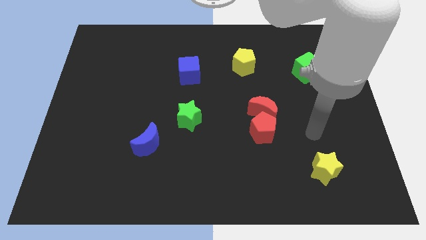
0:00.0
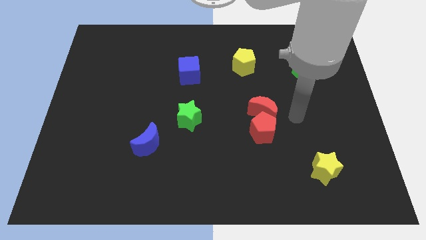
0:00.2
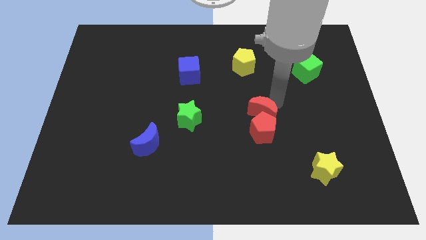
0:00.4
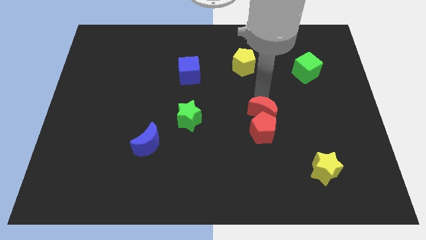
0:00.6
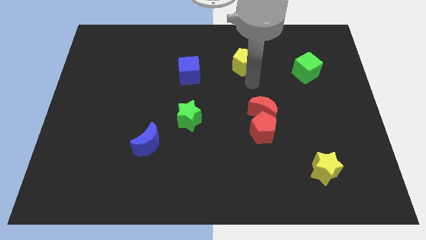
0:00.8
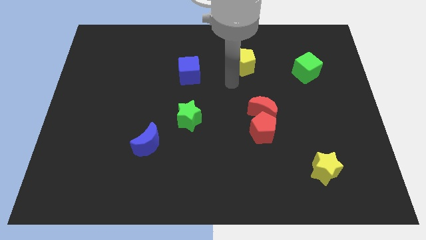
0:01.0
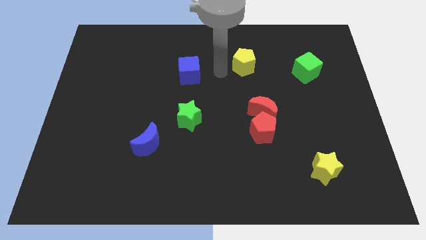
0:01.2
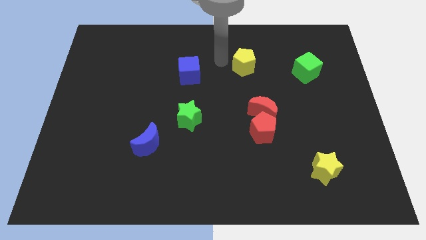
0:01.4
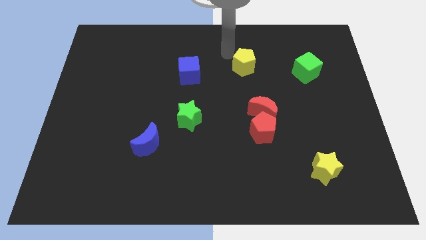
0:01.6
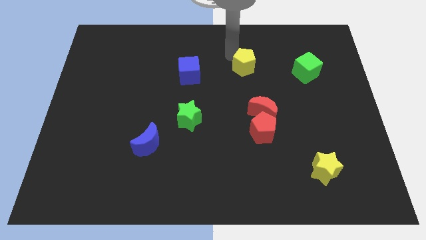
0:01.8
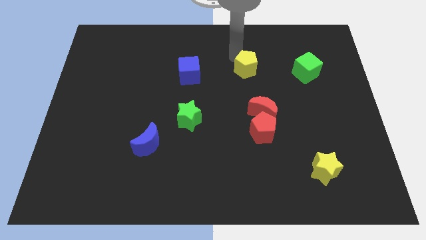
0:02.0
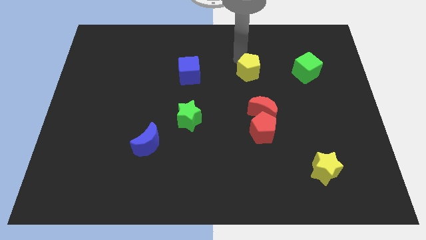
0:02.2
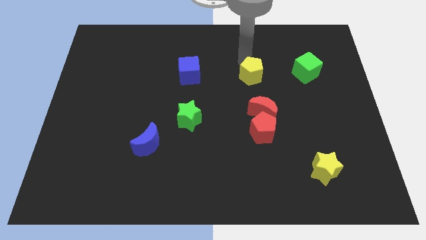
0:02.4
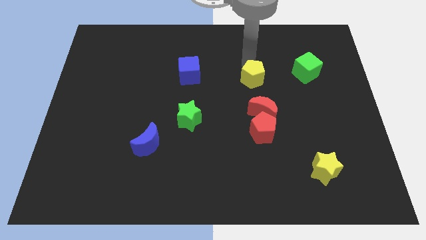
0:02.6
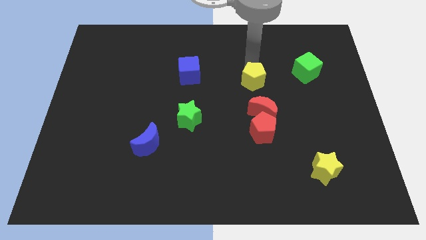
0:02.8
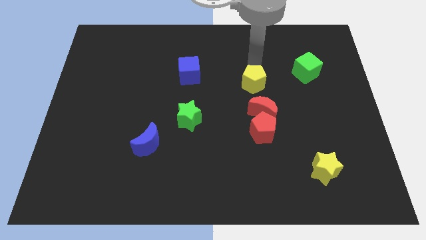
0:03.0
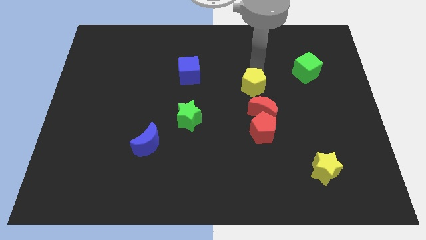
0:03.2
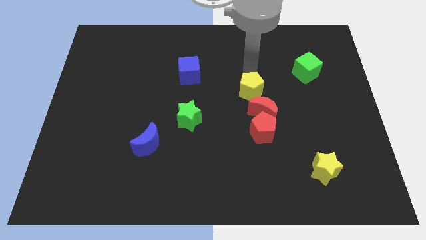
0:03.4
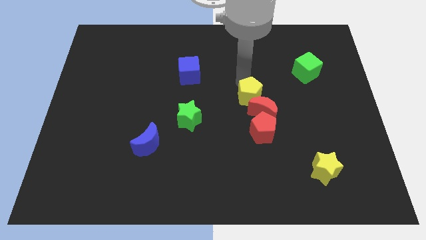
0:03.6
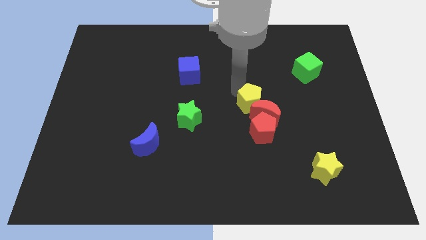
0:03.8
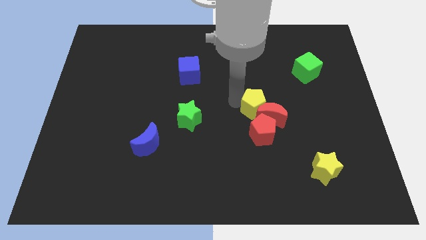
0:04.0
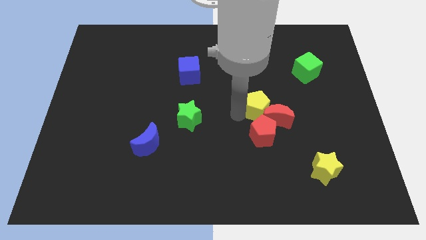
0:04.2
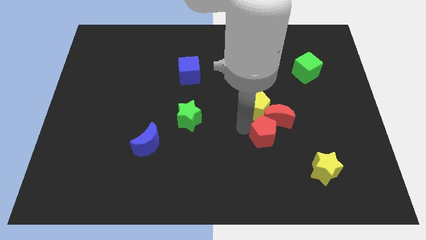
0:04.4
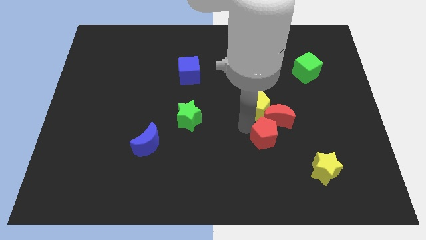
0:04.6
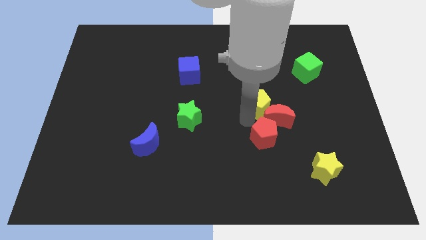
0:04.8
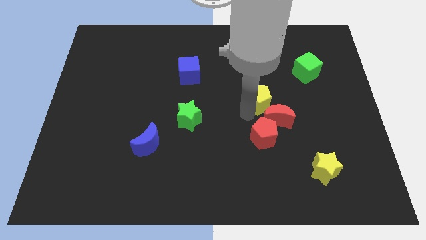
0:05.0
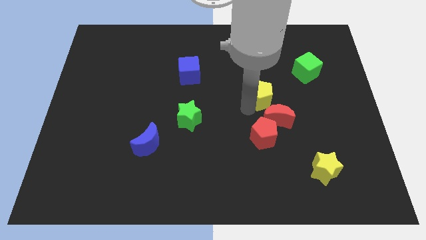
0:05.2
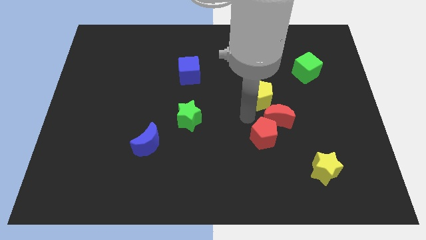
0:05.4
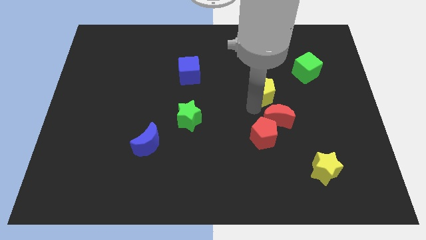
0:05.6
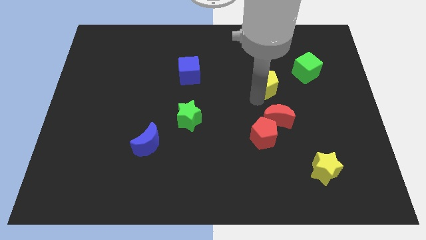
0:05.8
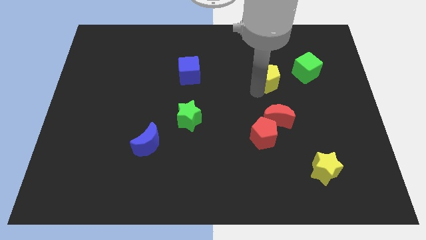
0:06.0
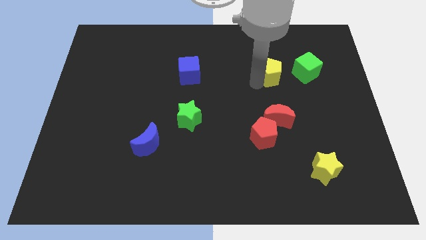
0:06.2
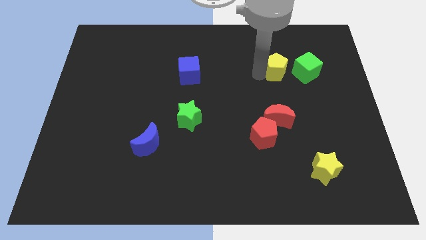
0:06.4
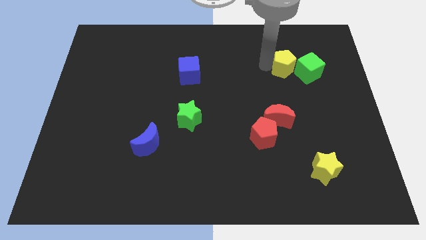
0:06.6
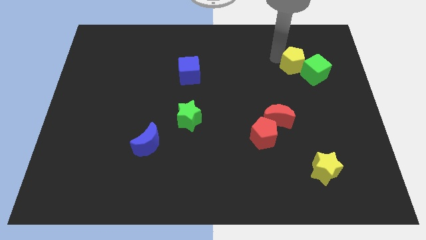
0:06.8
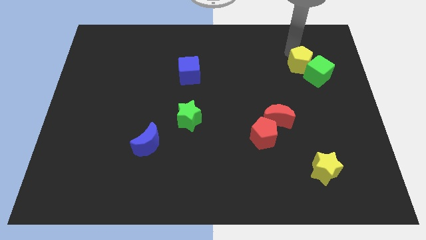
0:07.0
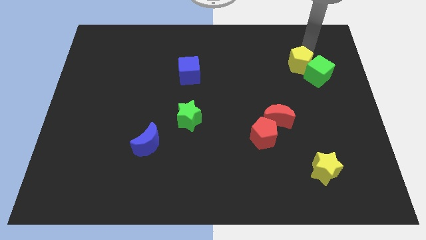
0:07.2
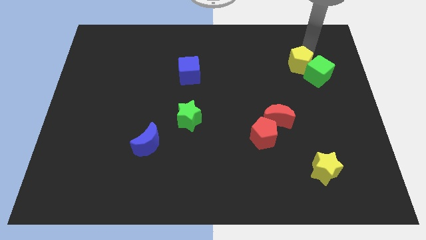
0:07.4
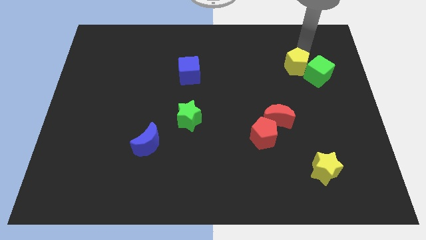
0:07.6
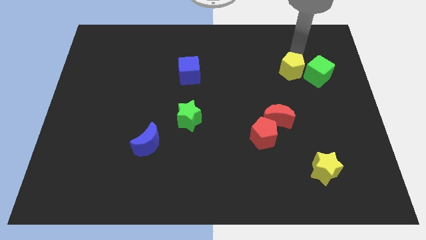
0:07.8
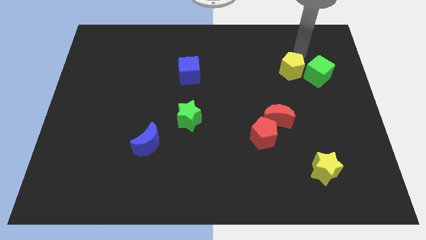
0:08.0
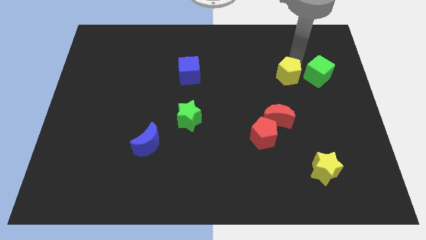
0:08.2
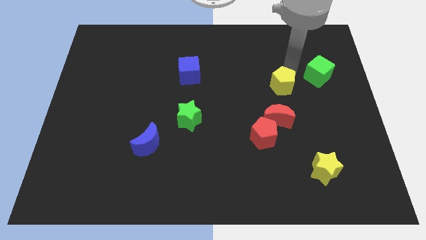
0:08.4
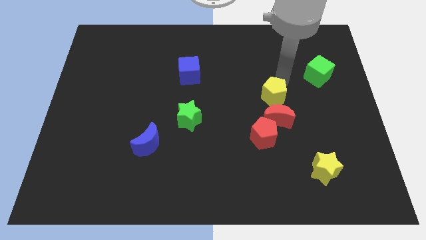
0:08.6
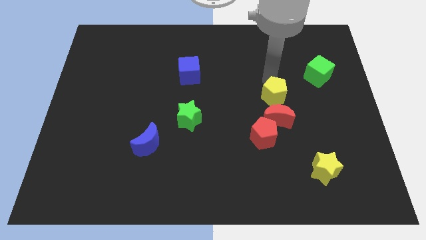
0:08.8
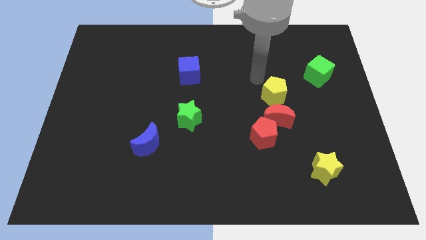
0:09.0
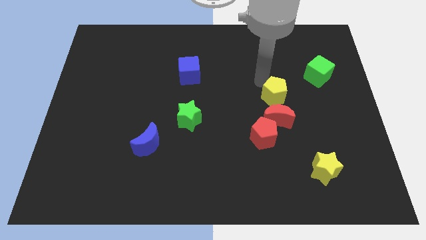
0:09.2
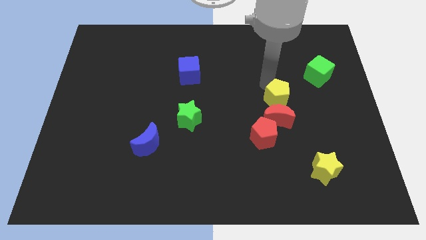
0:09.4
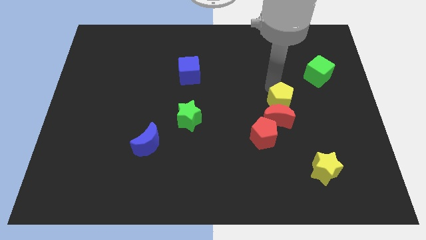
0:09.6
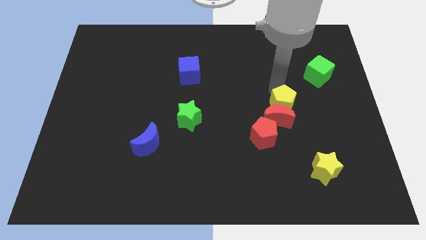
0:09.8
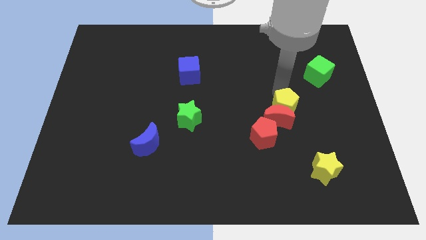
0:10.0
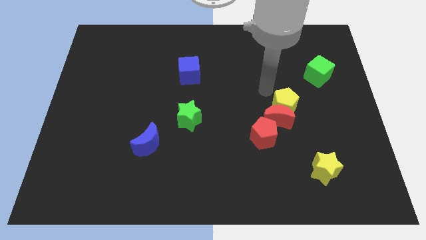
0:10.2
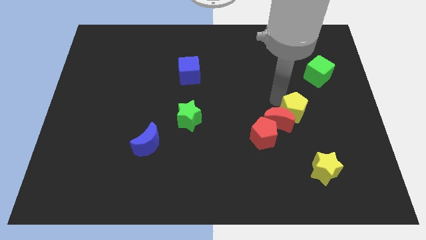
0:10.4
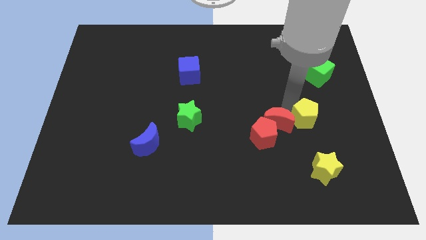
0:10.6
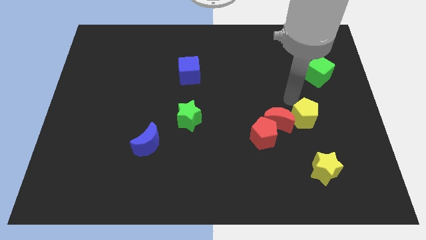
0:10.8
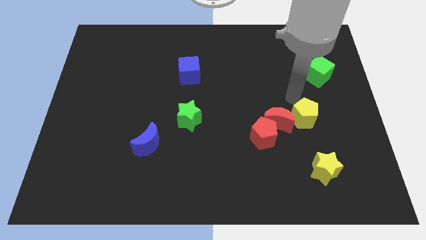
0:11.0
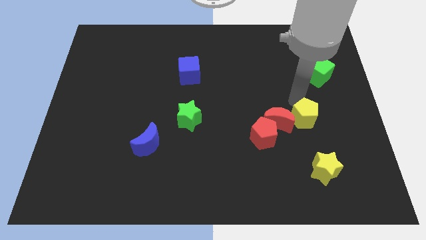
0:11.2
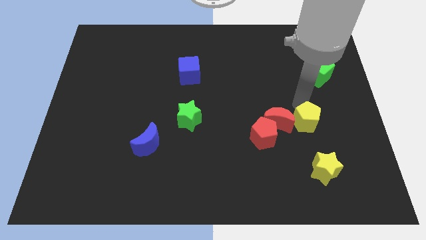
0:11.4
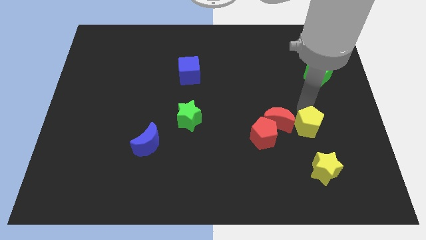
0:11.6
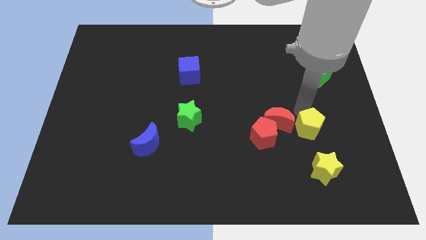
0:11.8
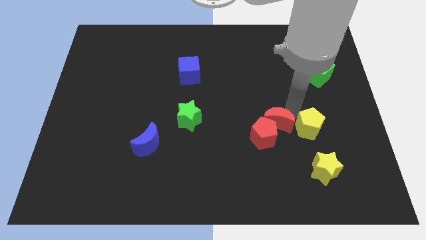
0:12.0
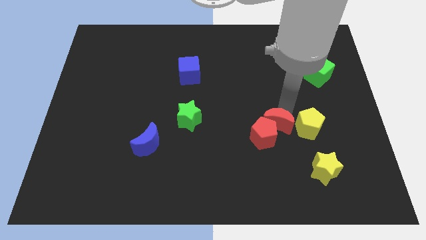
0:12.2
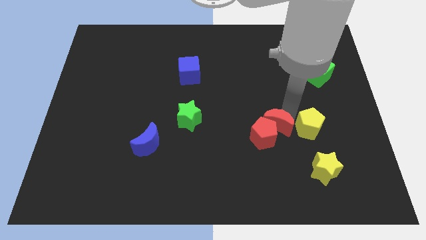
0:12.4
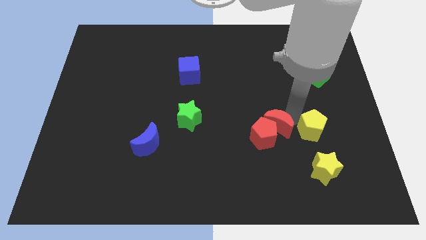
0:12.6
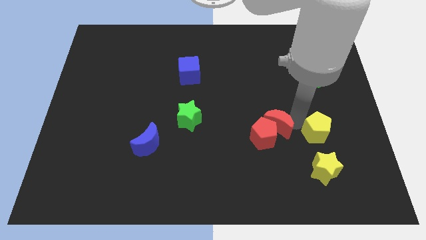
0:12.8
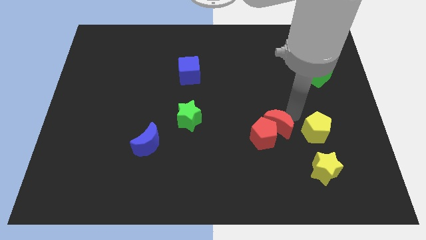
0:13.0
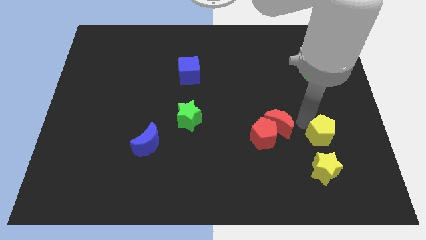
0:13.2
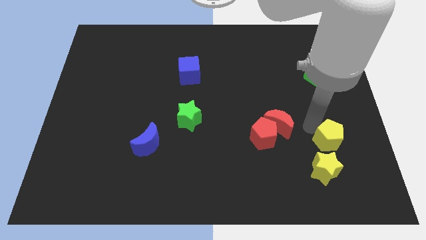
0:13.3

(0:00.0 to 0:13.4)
push the yellow pentagon to the top right of the yellow star

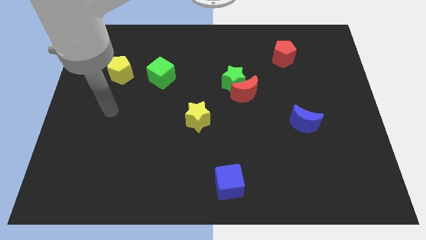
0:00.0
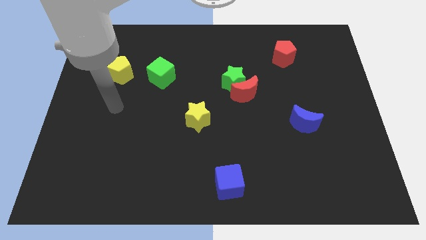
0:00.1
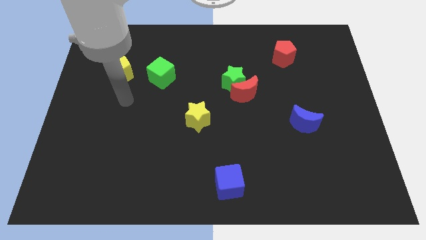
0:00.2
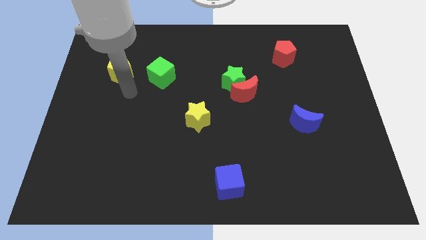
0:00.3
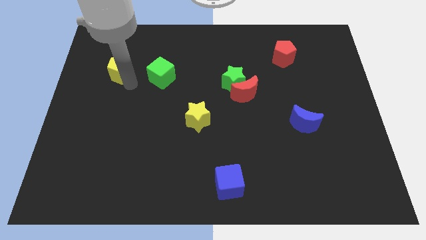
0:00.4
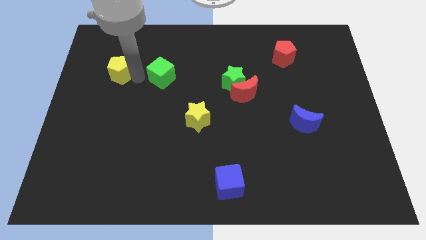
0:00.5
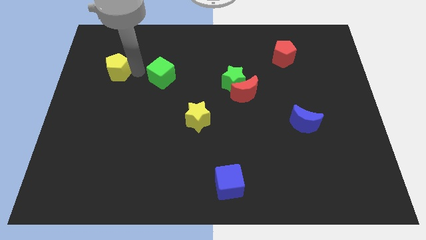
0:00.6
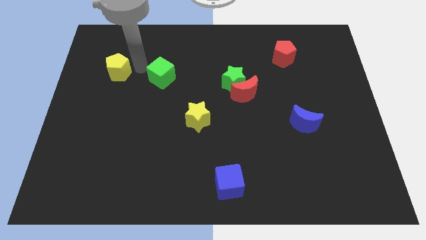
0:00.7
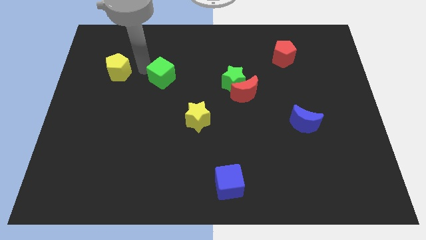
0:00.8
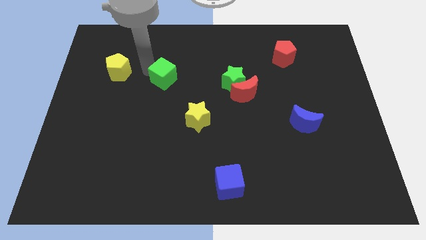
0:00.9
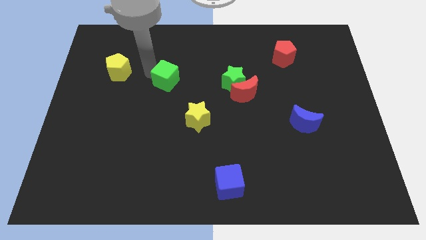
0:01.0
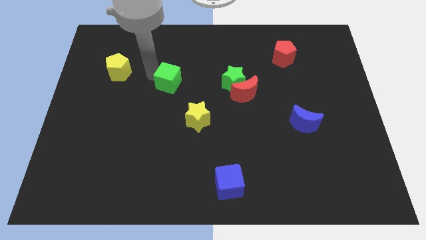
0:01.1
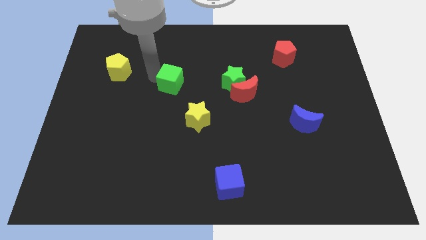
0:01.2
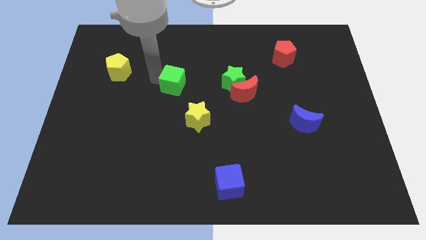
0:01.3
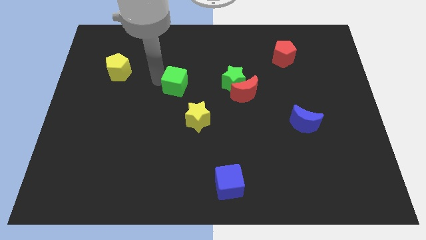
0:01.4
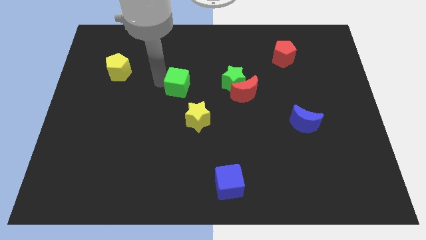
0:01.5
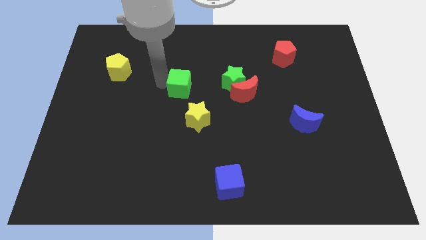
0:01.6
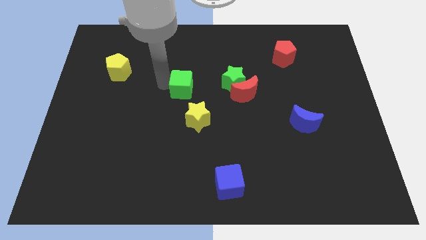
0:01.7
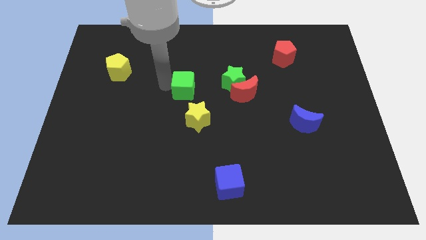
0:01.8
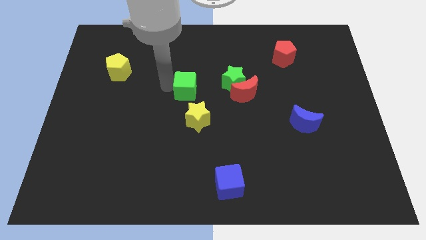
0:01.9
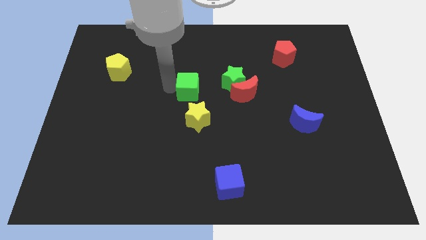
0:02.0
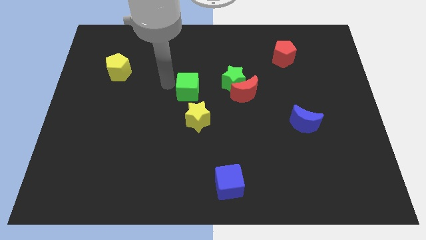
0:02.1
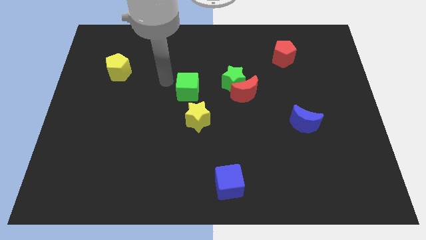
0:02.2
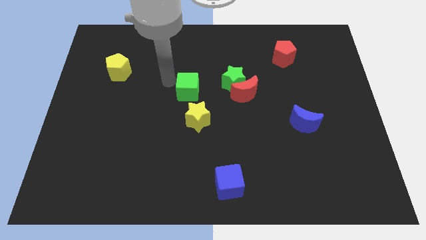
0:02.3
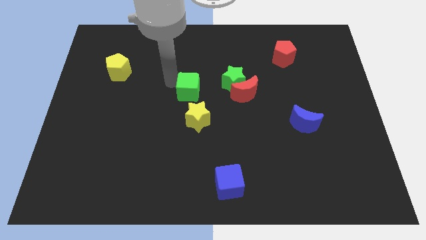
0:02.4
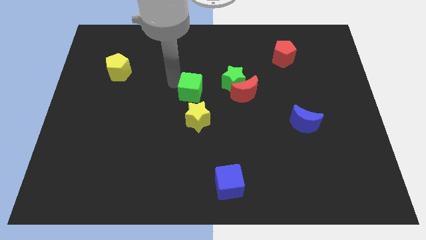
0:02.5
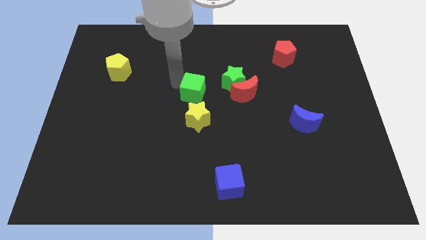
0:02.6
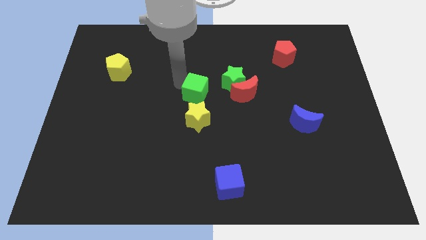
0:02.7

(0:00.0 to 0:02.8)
push the green cube to the bottom left of the green star
